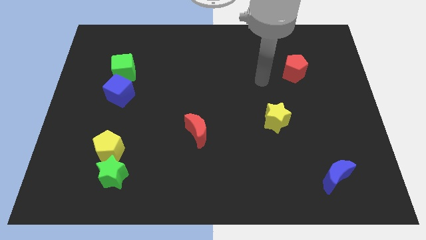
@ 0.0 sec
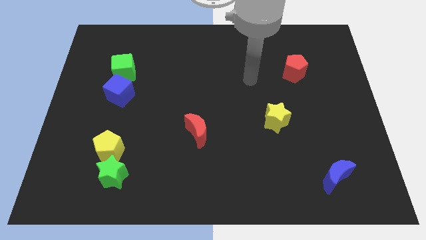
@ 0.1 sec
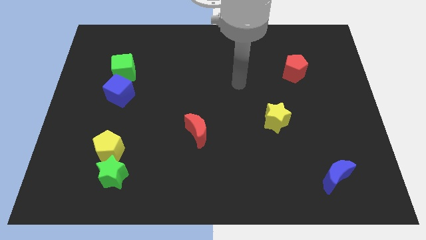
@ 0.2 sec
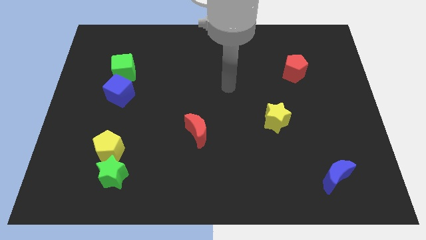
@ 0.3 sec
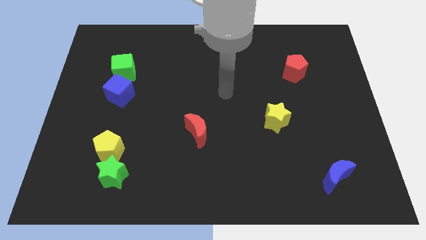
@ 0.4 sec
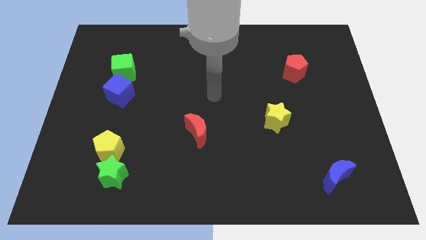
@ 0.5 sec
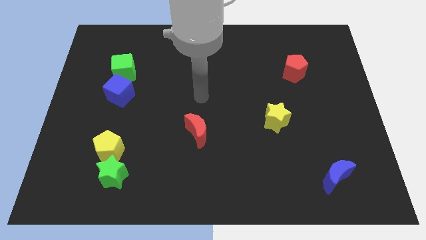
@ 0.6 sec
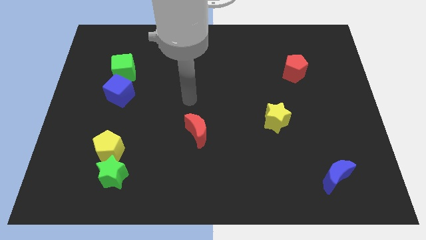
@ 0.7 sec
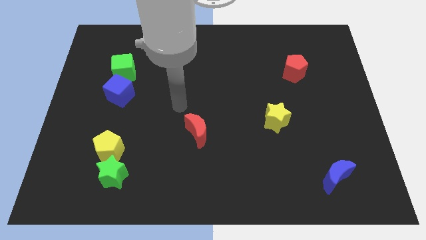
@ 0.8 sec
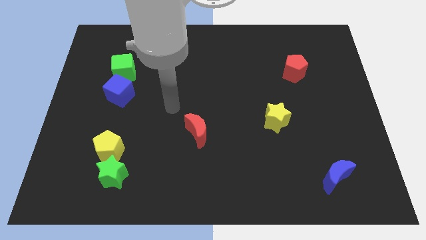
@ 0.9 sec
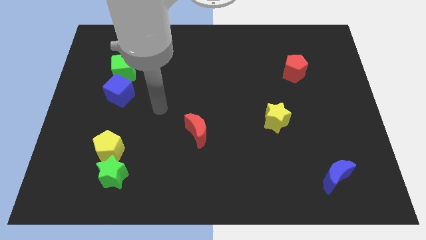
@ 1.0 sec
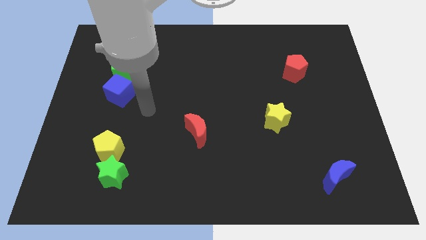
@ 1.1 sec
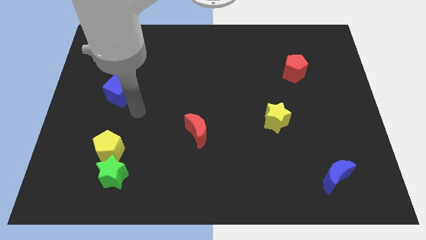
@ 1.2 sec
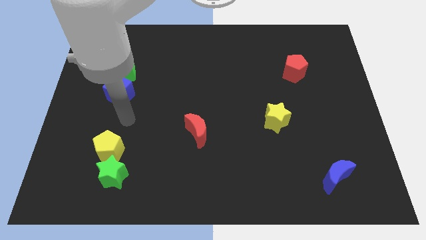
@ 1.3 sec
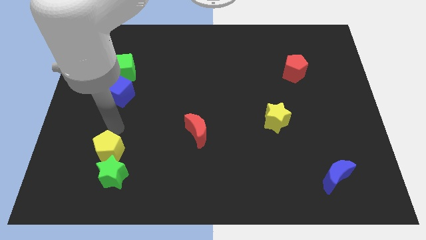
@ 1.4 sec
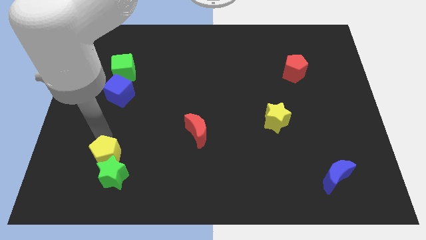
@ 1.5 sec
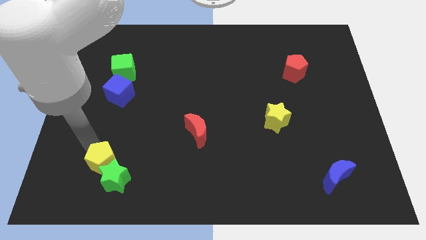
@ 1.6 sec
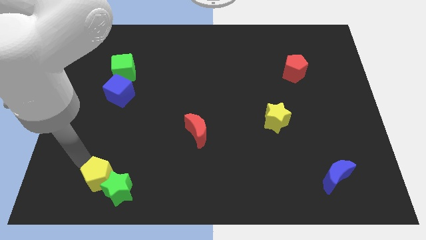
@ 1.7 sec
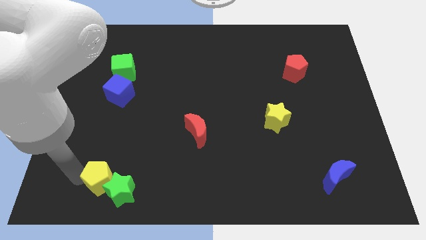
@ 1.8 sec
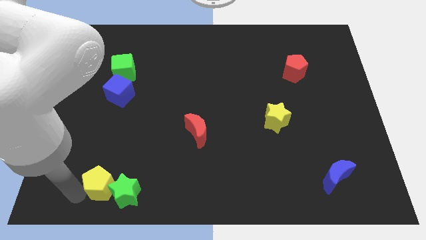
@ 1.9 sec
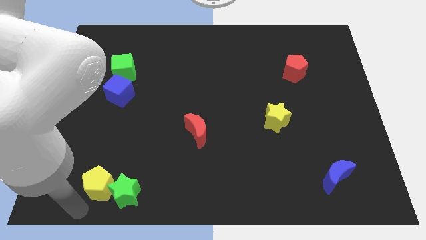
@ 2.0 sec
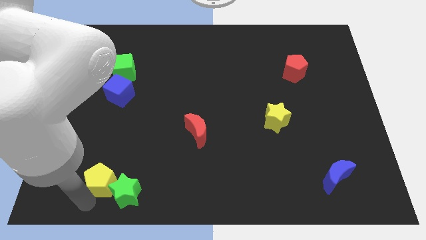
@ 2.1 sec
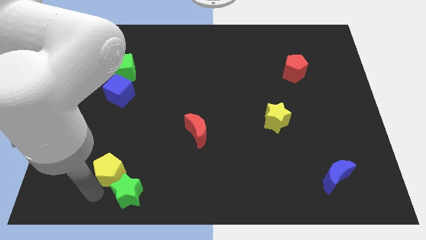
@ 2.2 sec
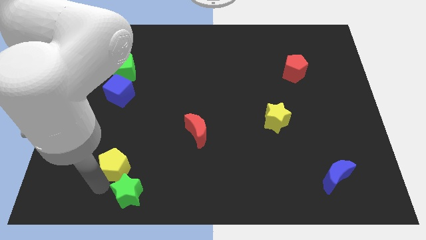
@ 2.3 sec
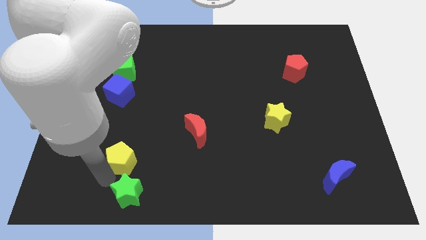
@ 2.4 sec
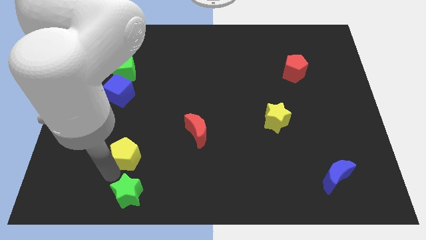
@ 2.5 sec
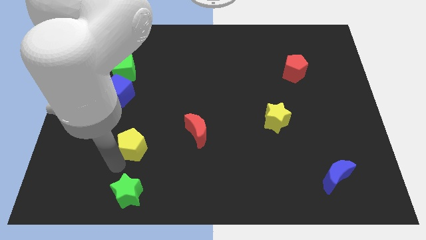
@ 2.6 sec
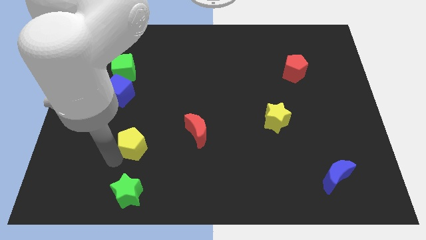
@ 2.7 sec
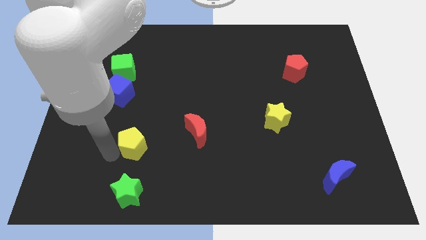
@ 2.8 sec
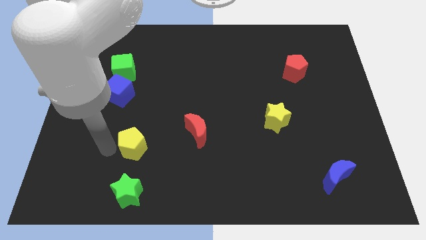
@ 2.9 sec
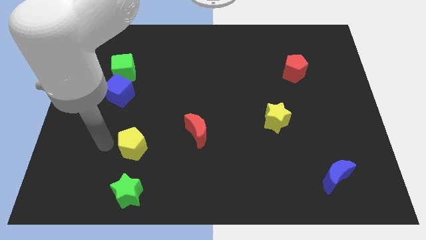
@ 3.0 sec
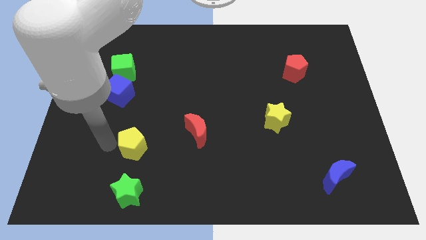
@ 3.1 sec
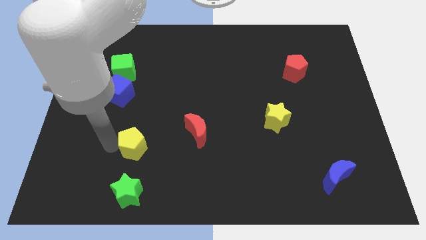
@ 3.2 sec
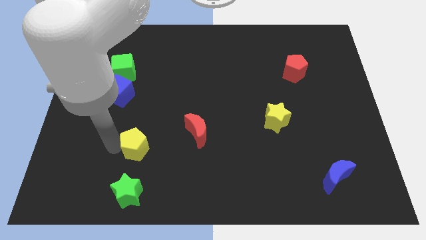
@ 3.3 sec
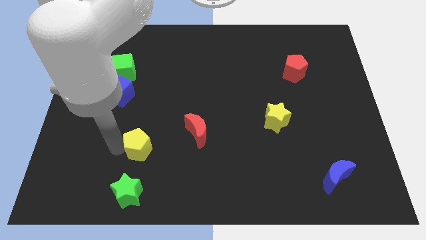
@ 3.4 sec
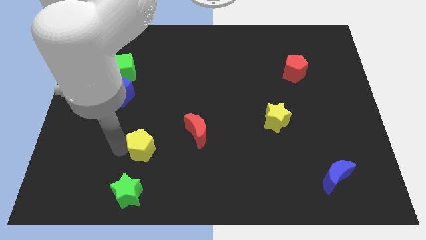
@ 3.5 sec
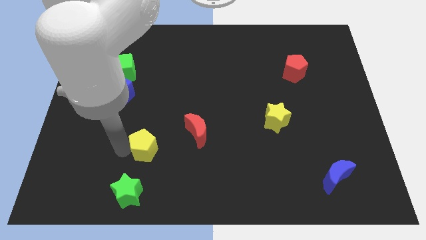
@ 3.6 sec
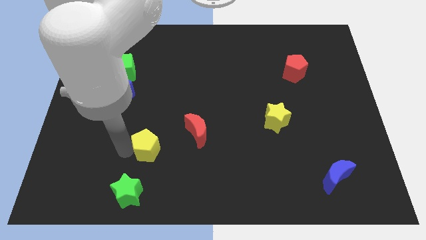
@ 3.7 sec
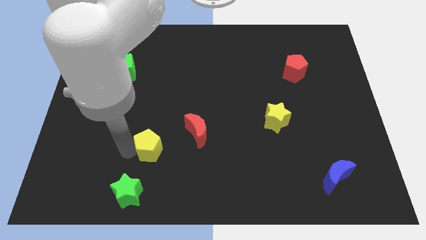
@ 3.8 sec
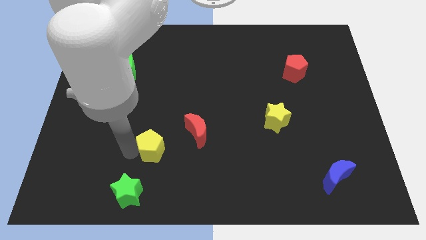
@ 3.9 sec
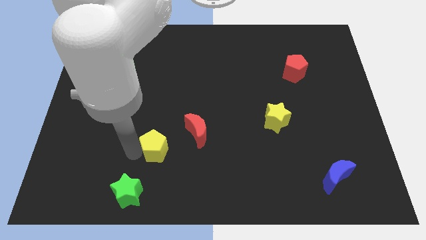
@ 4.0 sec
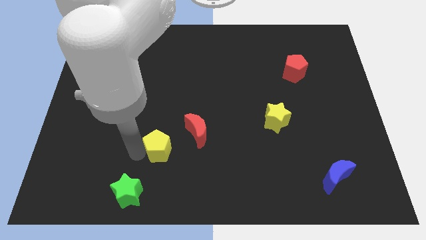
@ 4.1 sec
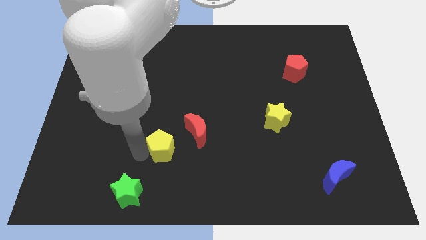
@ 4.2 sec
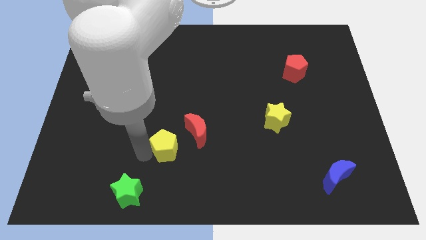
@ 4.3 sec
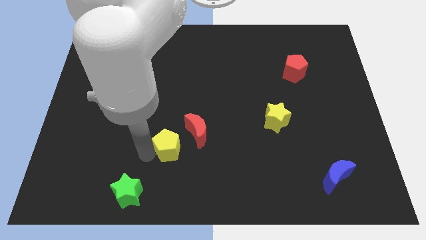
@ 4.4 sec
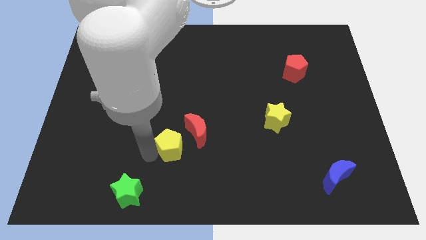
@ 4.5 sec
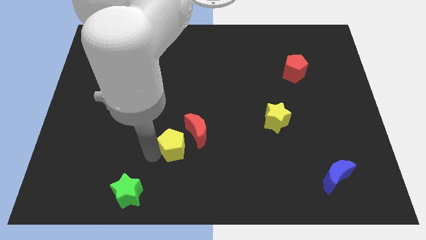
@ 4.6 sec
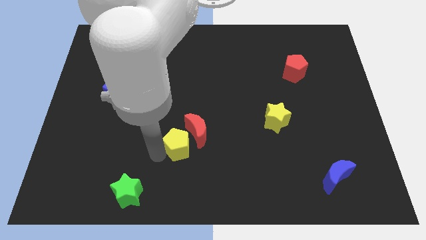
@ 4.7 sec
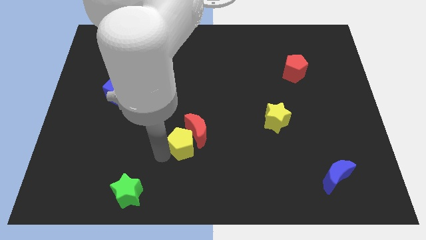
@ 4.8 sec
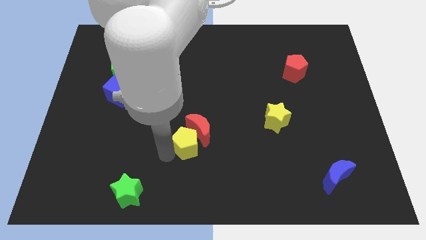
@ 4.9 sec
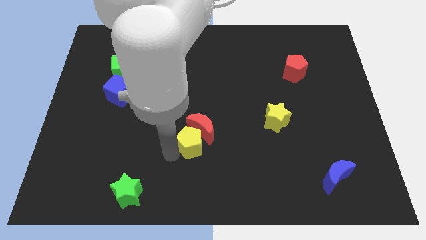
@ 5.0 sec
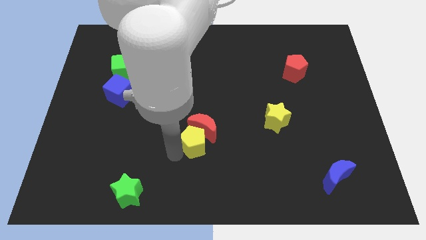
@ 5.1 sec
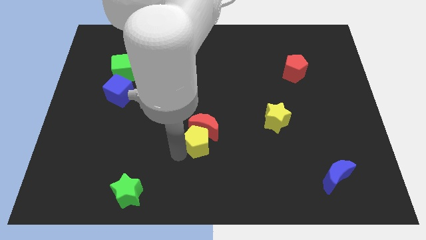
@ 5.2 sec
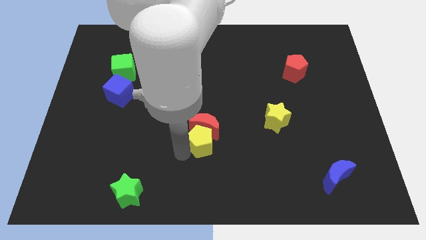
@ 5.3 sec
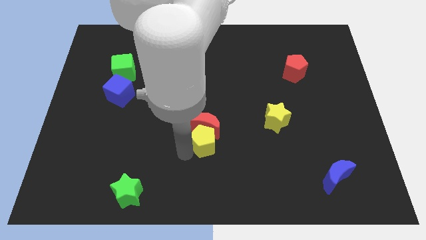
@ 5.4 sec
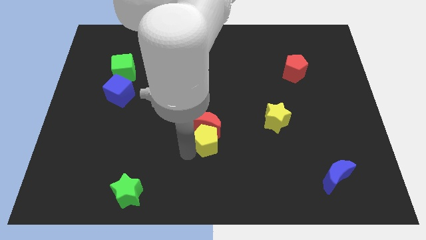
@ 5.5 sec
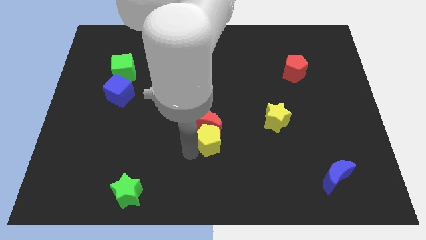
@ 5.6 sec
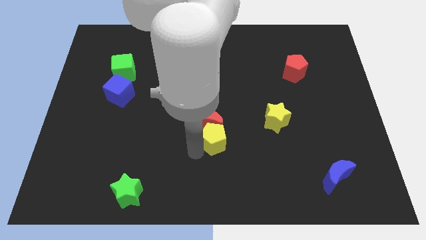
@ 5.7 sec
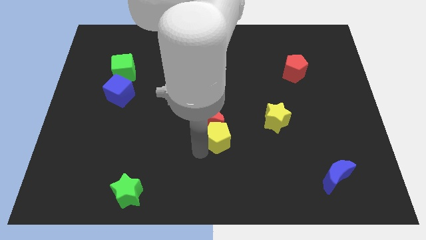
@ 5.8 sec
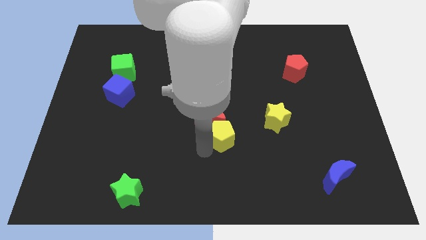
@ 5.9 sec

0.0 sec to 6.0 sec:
move the yellow pentagon to the right of the red moon
